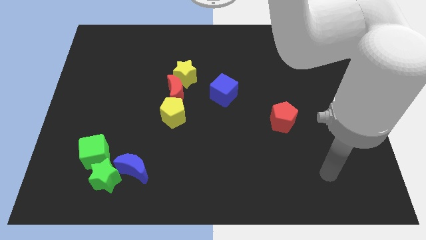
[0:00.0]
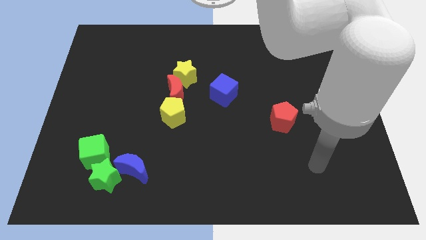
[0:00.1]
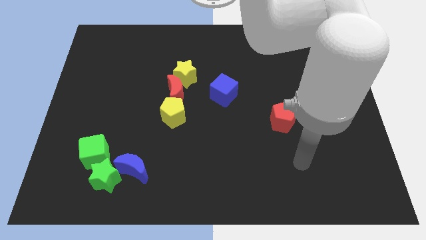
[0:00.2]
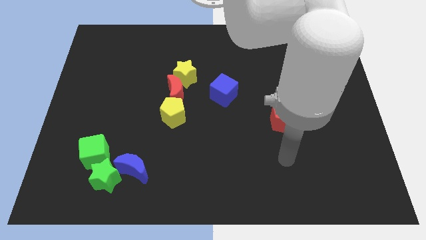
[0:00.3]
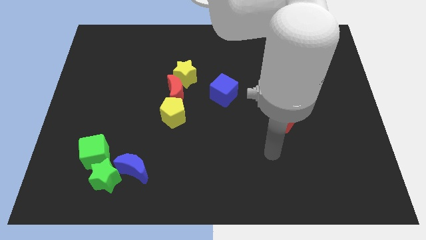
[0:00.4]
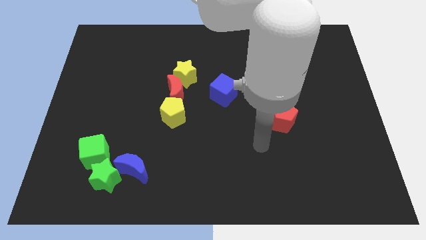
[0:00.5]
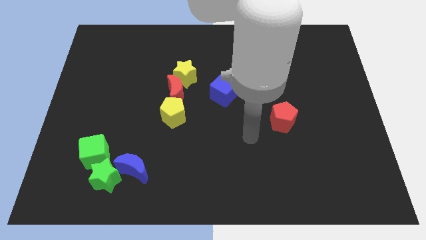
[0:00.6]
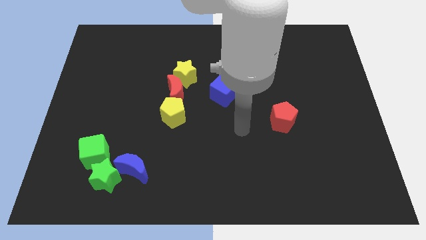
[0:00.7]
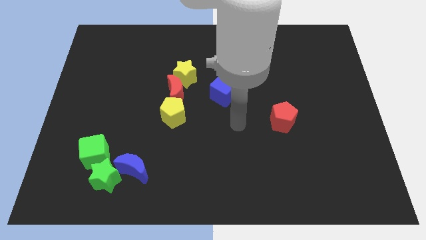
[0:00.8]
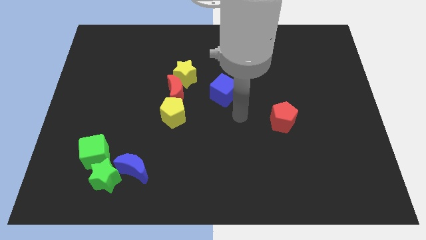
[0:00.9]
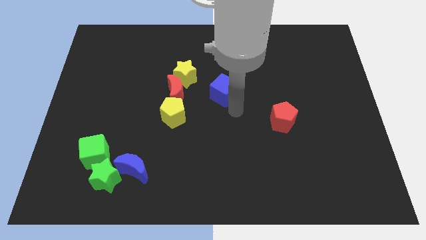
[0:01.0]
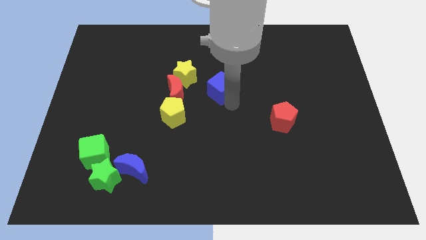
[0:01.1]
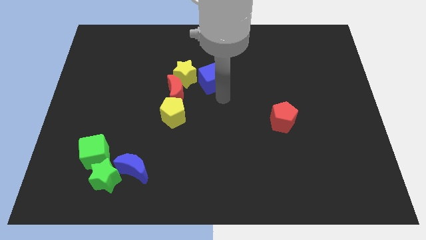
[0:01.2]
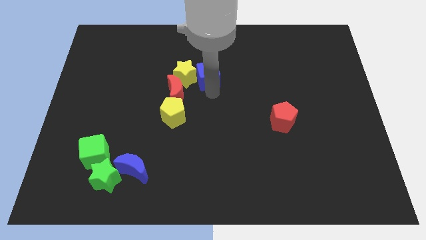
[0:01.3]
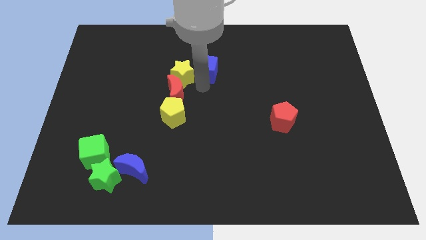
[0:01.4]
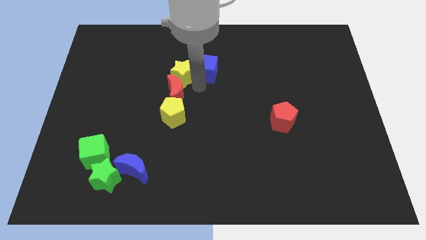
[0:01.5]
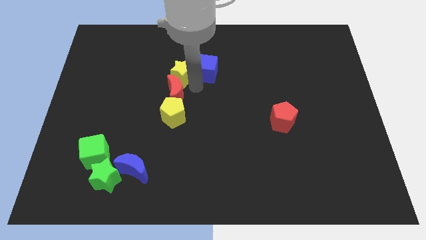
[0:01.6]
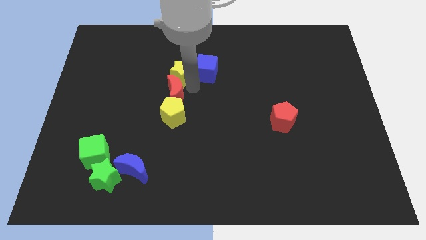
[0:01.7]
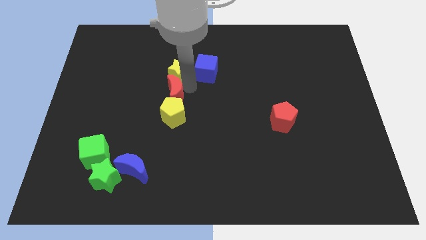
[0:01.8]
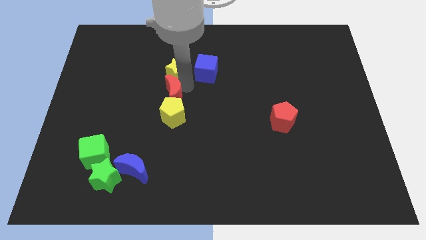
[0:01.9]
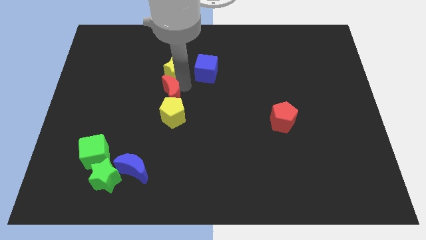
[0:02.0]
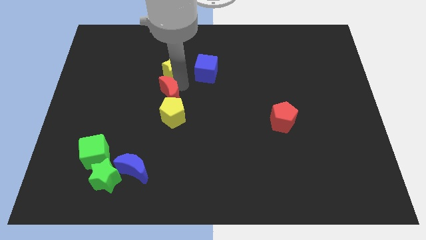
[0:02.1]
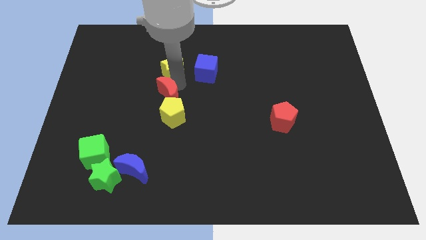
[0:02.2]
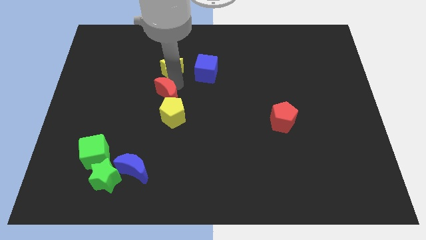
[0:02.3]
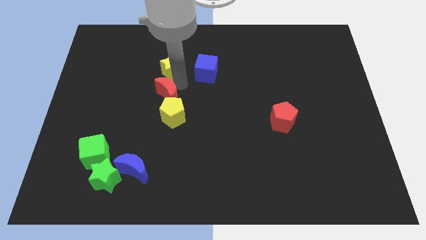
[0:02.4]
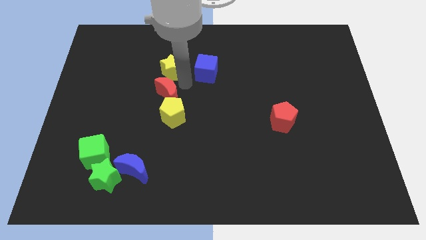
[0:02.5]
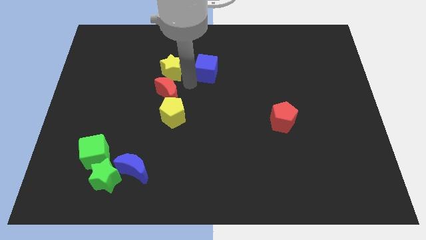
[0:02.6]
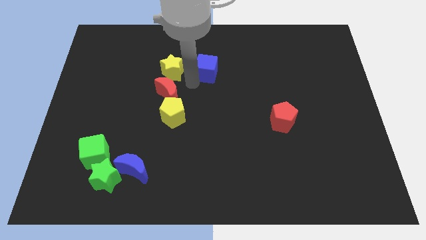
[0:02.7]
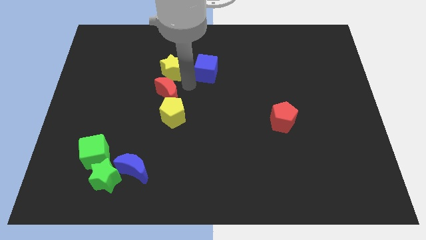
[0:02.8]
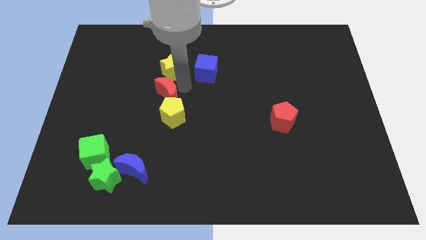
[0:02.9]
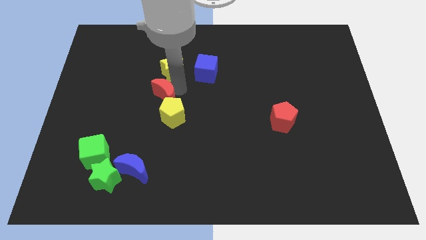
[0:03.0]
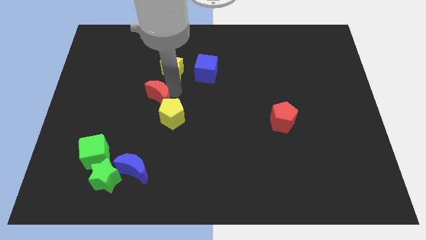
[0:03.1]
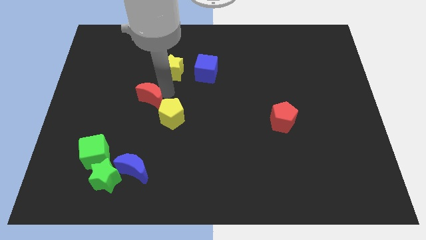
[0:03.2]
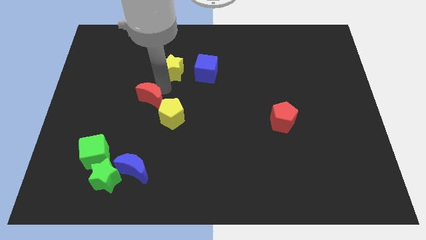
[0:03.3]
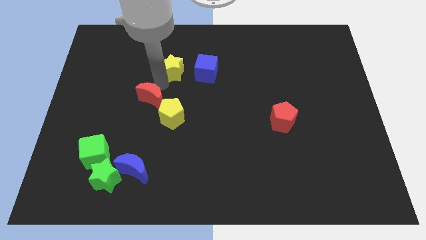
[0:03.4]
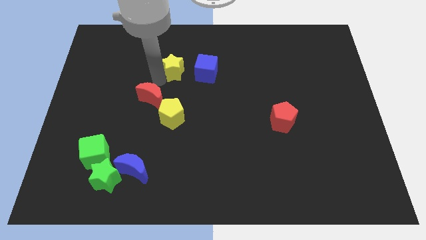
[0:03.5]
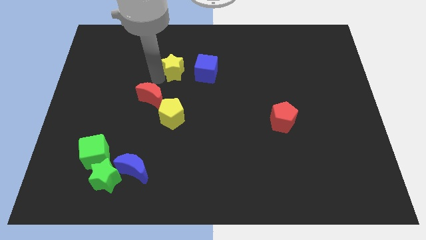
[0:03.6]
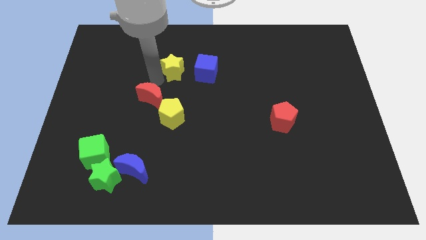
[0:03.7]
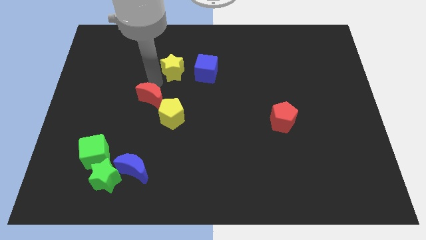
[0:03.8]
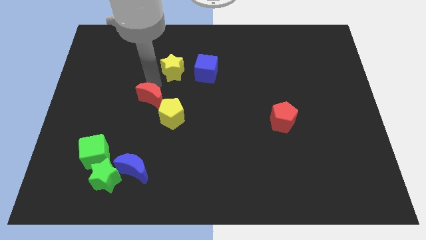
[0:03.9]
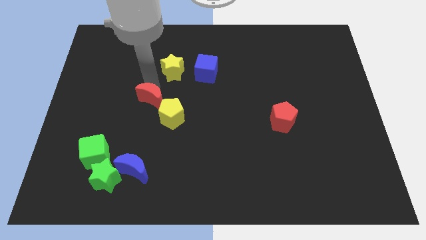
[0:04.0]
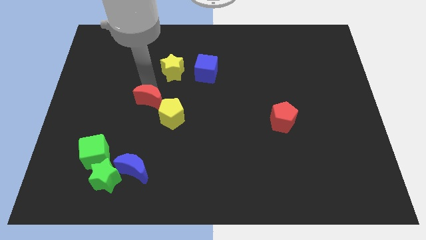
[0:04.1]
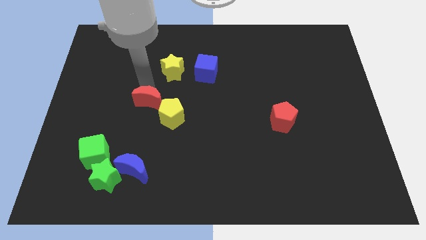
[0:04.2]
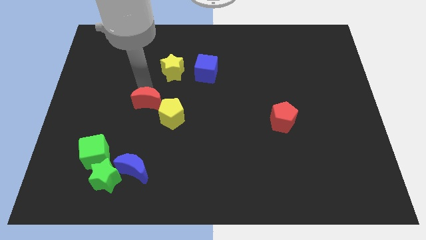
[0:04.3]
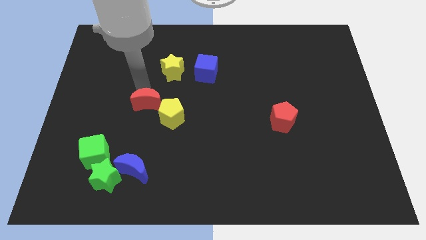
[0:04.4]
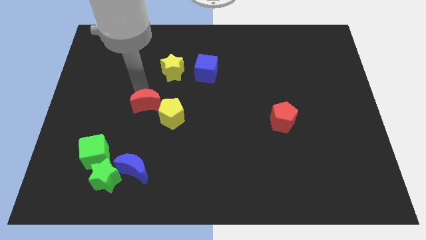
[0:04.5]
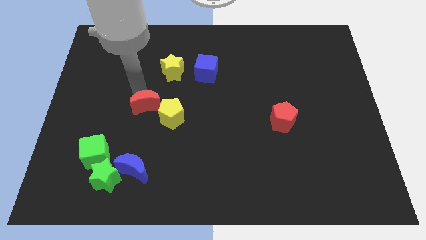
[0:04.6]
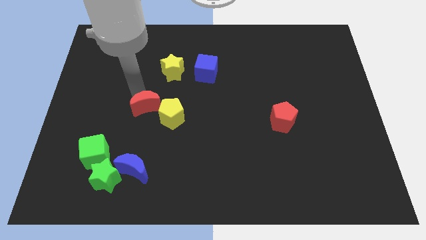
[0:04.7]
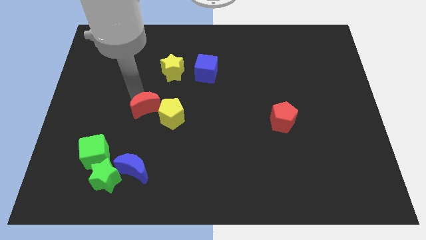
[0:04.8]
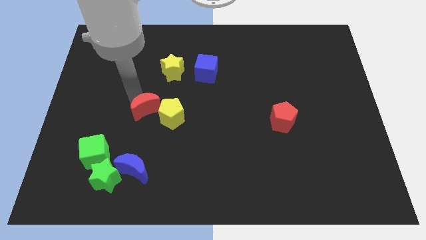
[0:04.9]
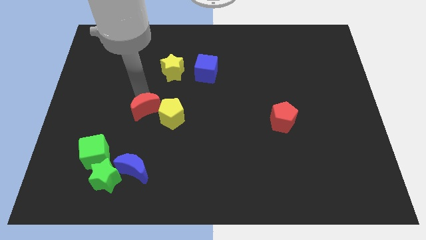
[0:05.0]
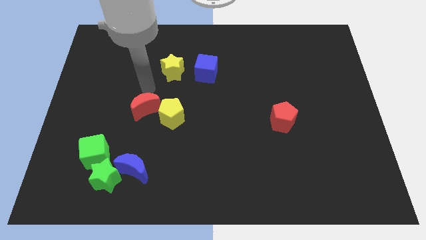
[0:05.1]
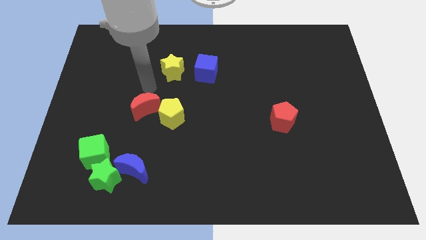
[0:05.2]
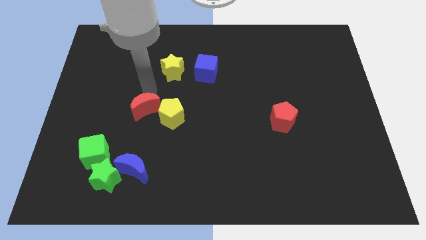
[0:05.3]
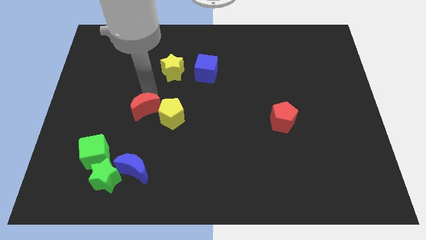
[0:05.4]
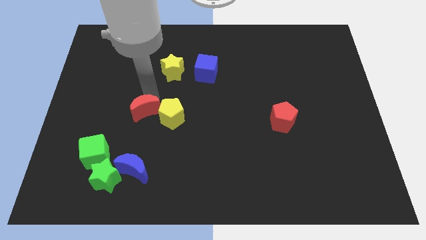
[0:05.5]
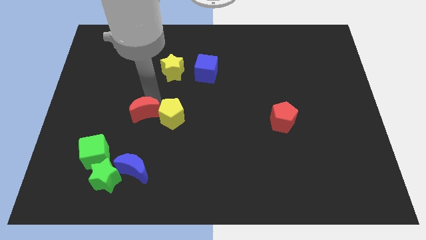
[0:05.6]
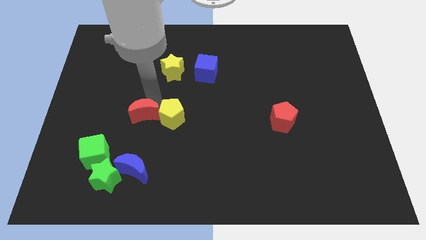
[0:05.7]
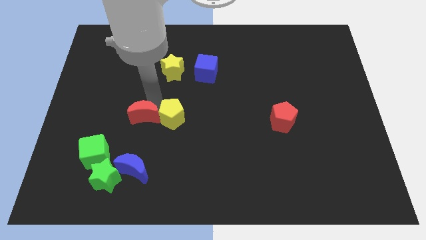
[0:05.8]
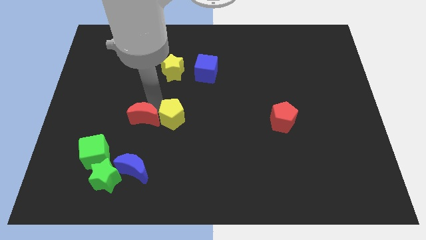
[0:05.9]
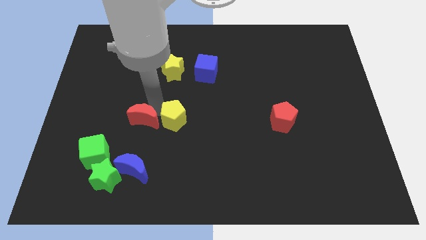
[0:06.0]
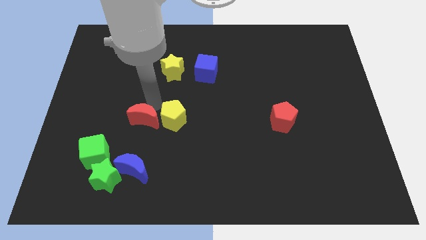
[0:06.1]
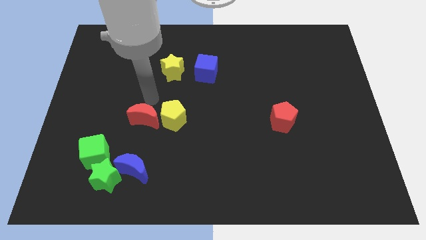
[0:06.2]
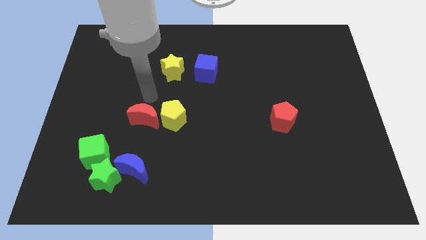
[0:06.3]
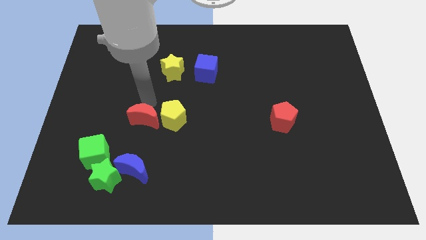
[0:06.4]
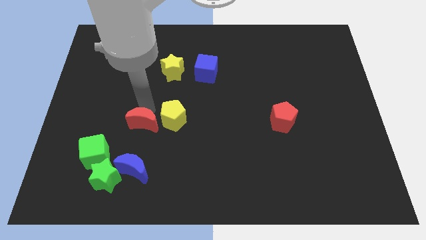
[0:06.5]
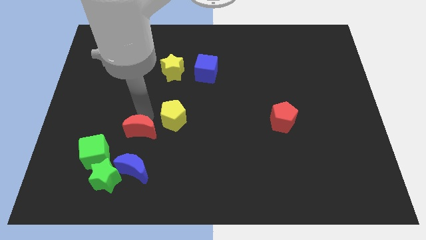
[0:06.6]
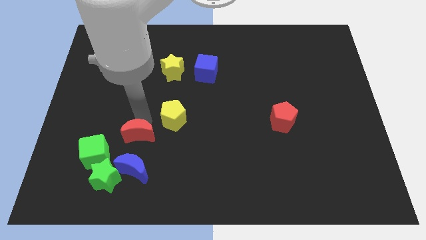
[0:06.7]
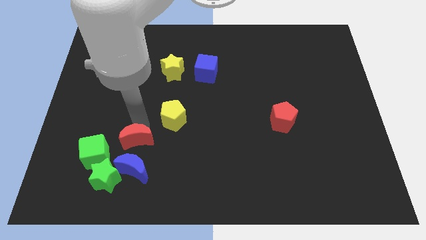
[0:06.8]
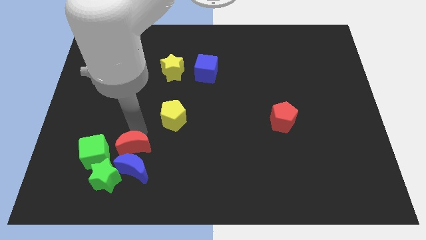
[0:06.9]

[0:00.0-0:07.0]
move the red moon next to the blue moon
